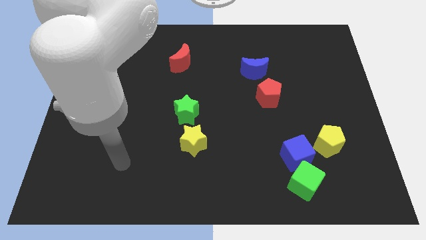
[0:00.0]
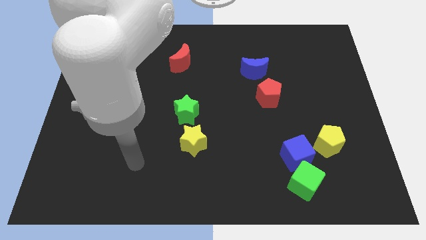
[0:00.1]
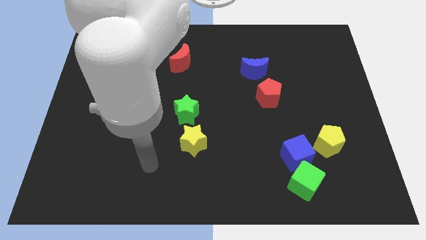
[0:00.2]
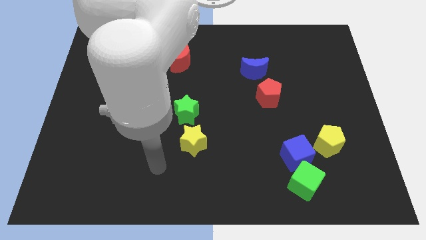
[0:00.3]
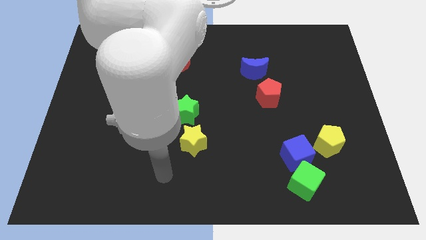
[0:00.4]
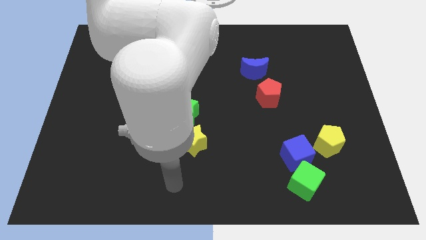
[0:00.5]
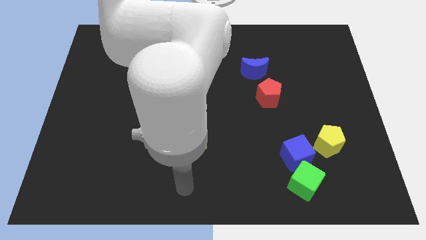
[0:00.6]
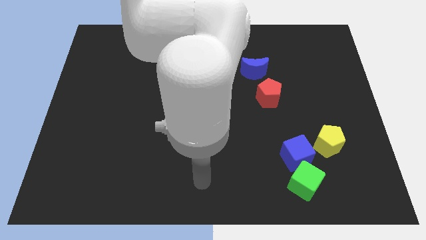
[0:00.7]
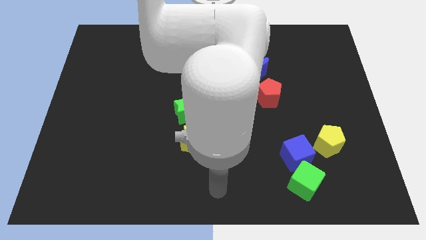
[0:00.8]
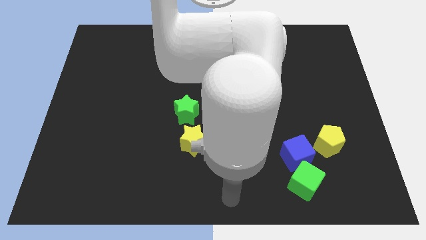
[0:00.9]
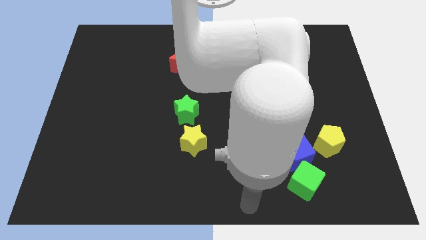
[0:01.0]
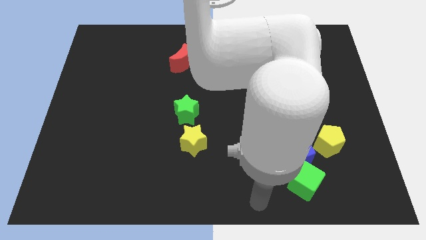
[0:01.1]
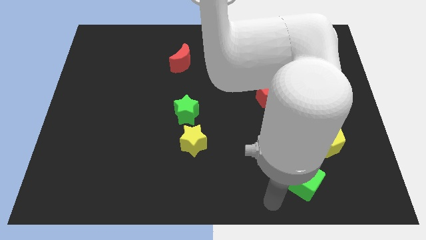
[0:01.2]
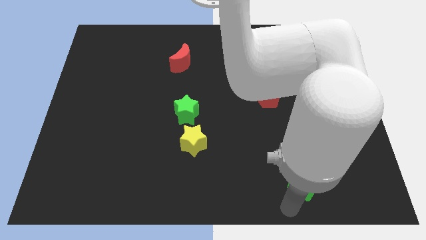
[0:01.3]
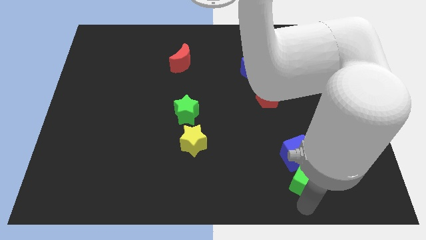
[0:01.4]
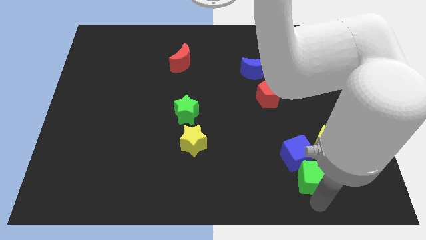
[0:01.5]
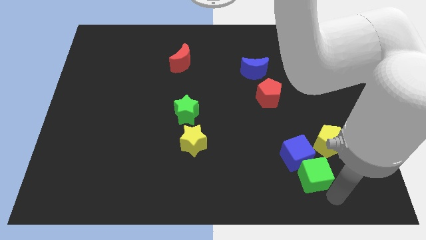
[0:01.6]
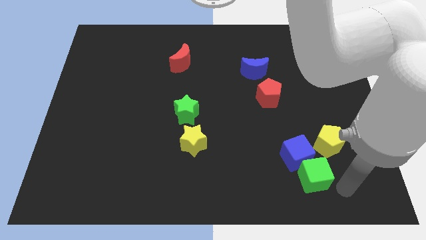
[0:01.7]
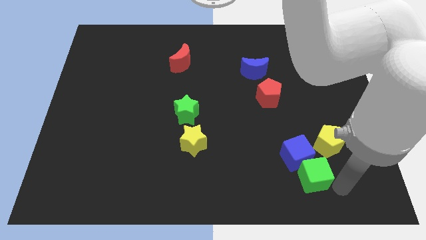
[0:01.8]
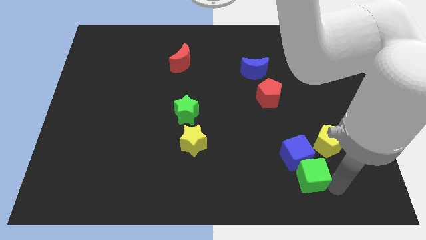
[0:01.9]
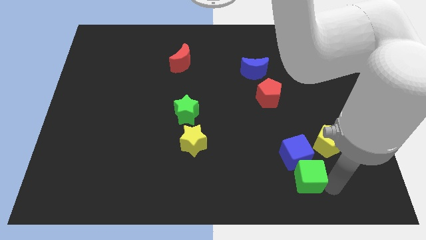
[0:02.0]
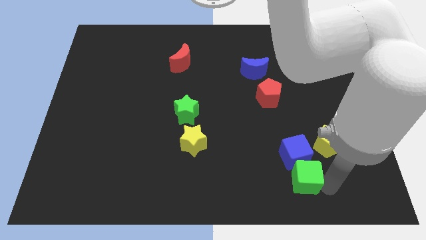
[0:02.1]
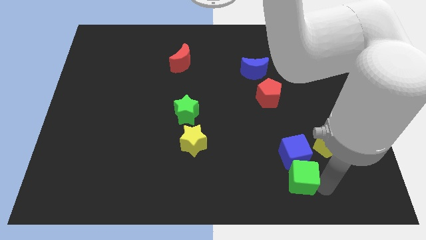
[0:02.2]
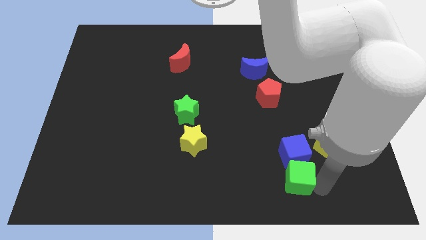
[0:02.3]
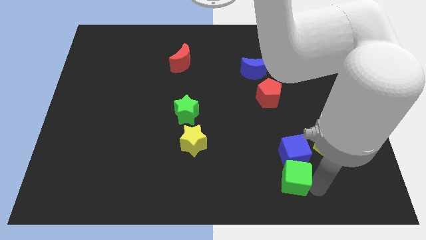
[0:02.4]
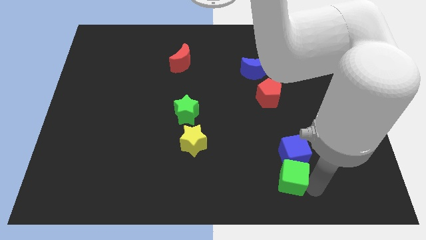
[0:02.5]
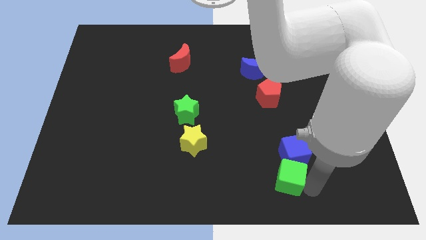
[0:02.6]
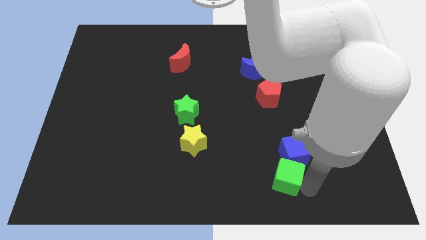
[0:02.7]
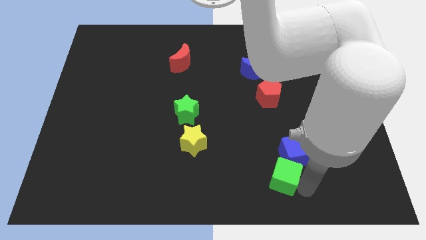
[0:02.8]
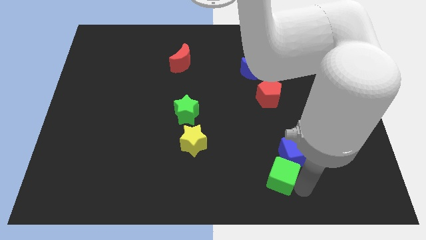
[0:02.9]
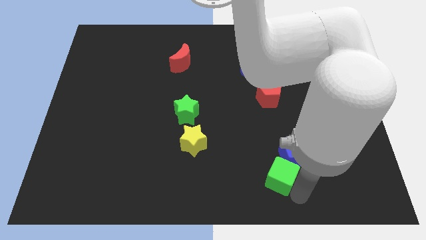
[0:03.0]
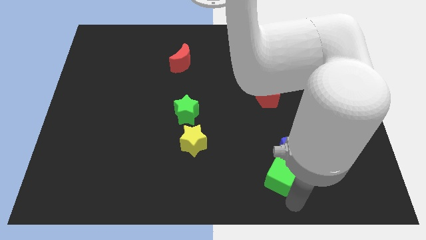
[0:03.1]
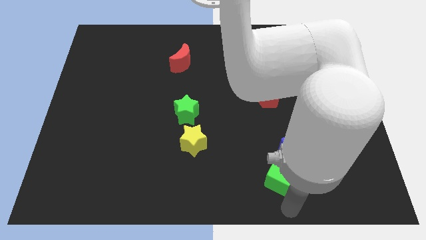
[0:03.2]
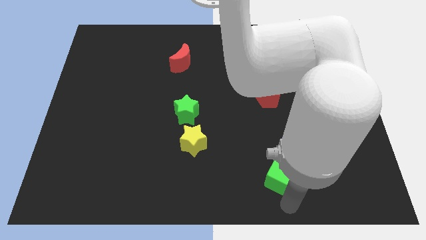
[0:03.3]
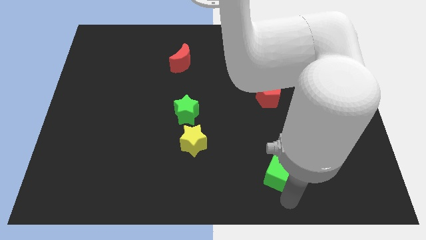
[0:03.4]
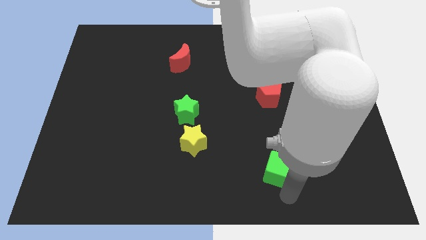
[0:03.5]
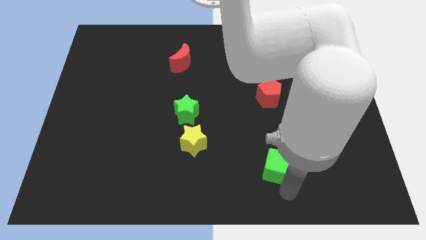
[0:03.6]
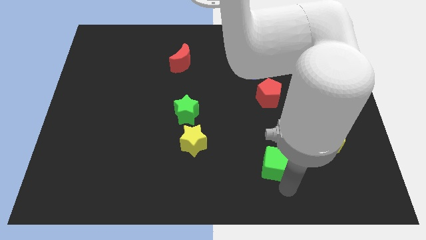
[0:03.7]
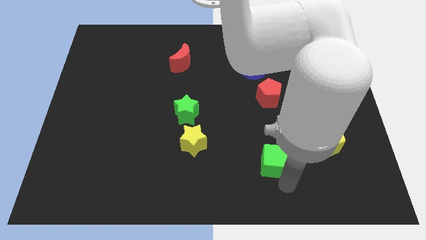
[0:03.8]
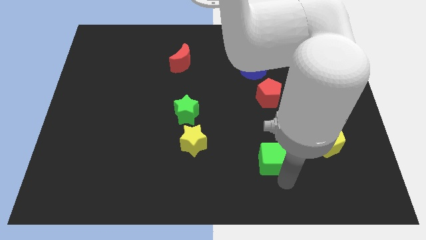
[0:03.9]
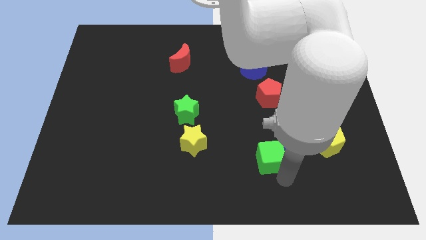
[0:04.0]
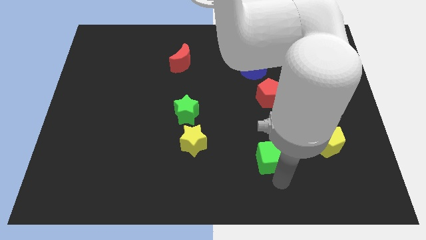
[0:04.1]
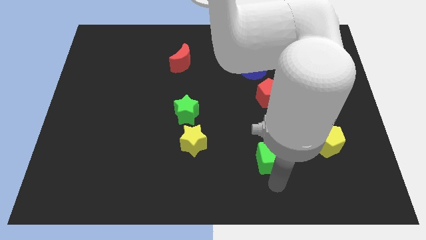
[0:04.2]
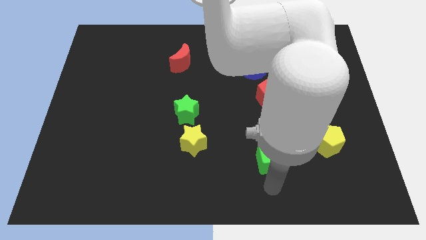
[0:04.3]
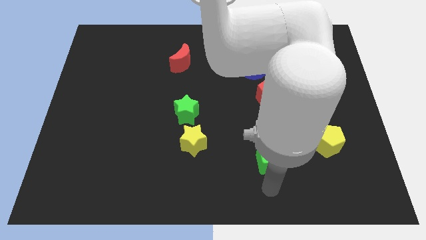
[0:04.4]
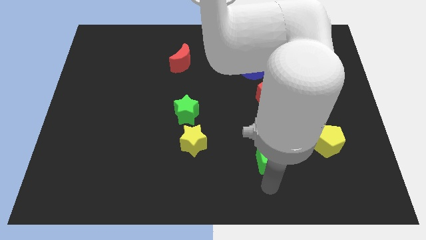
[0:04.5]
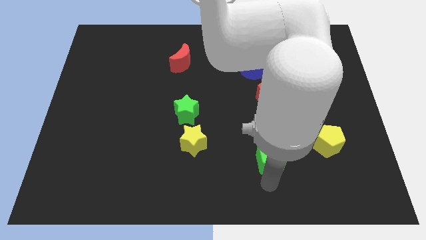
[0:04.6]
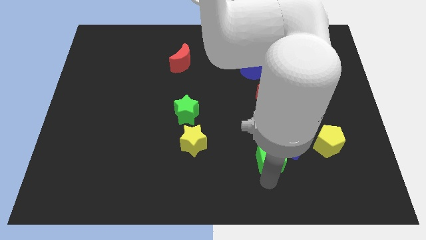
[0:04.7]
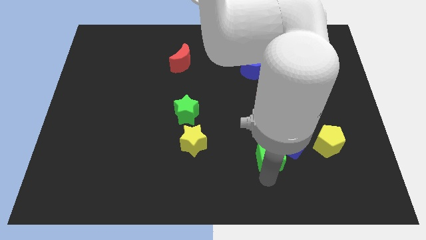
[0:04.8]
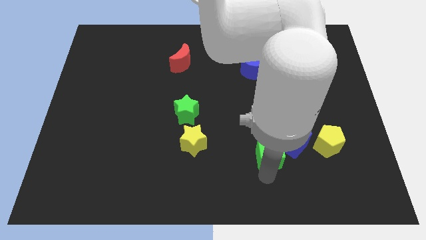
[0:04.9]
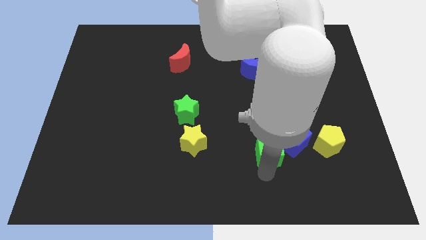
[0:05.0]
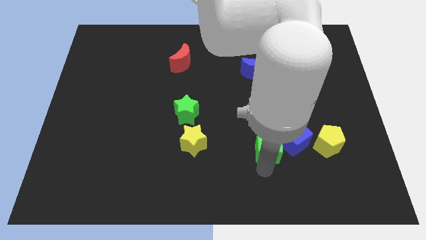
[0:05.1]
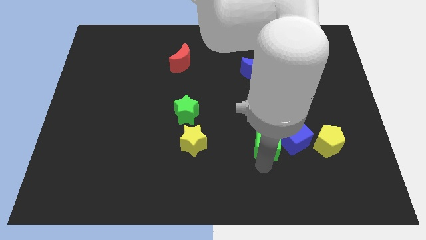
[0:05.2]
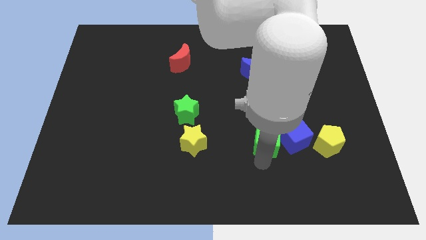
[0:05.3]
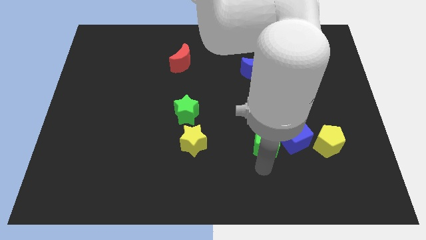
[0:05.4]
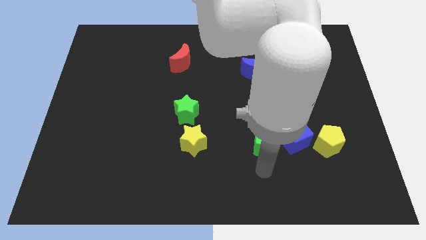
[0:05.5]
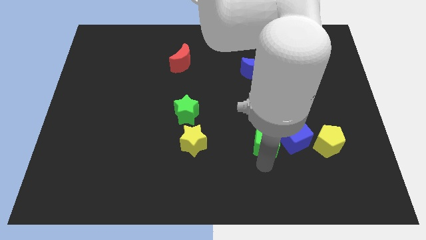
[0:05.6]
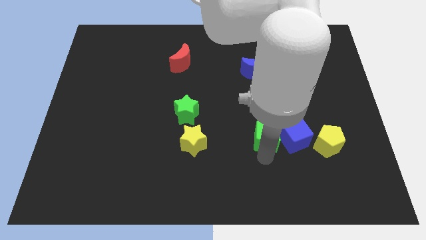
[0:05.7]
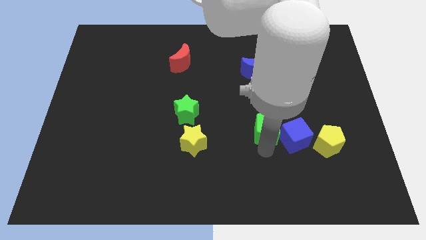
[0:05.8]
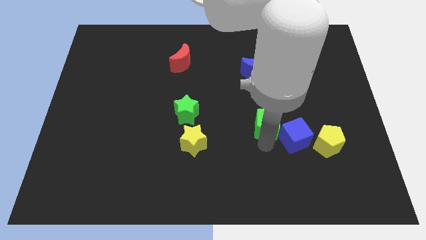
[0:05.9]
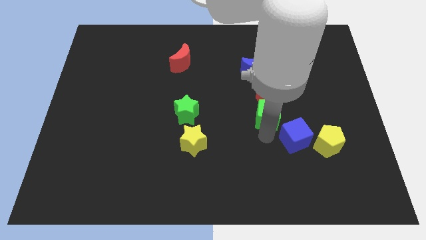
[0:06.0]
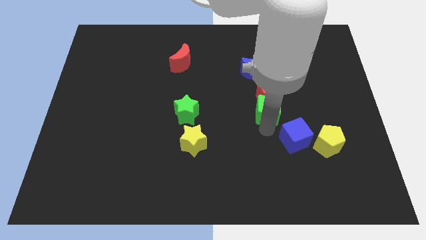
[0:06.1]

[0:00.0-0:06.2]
move the green cube towards the red pentagon

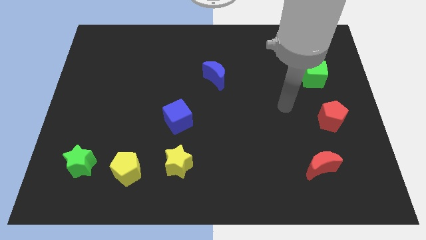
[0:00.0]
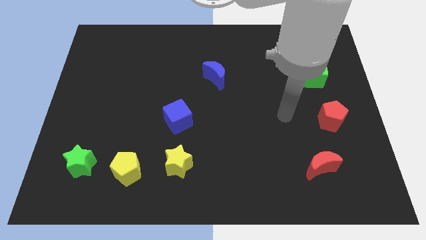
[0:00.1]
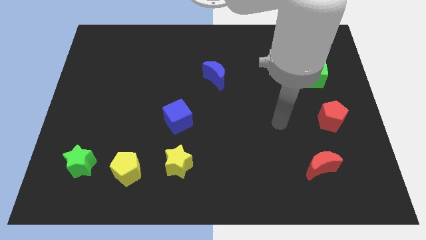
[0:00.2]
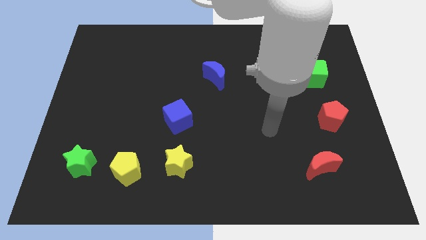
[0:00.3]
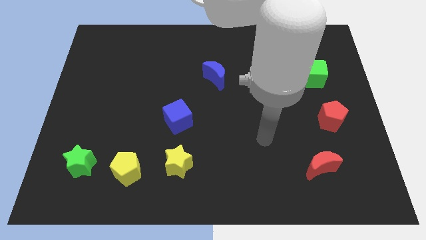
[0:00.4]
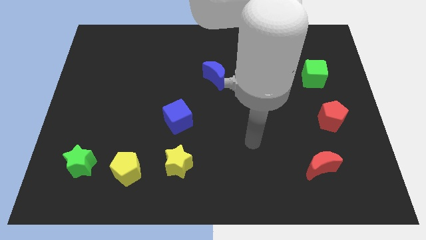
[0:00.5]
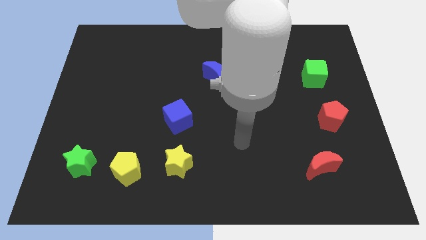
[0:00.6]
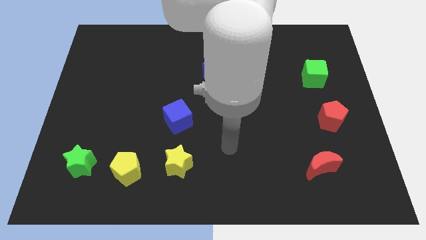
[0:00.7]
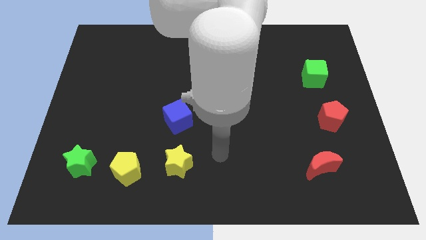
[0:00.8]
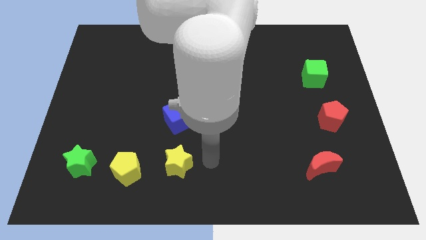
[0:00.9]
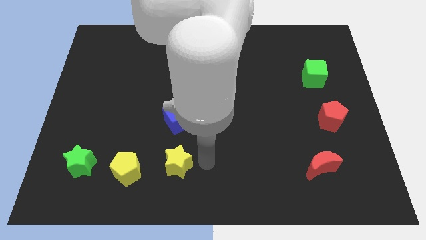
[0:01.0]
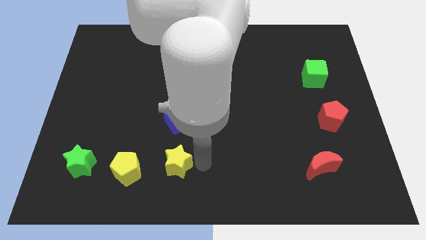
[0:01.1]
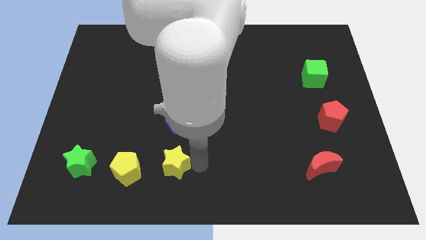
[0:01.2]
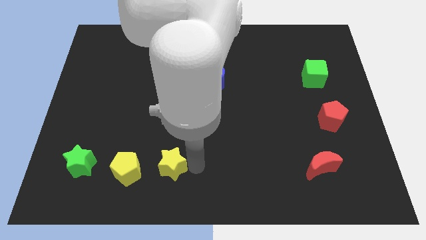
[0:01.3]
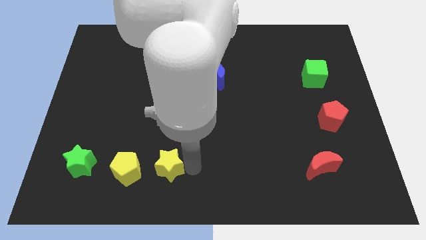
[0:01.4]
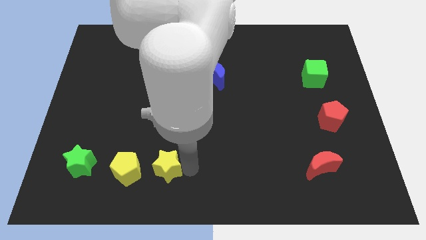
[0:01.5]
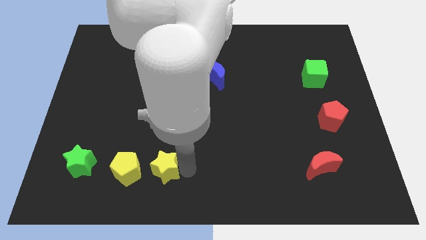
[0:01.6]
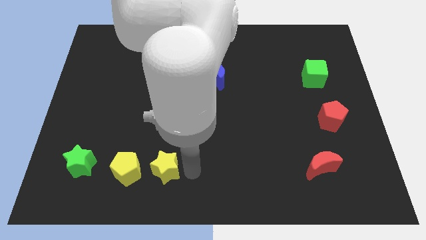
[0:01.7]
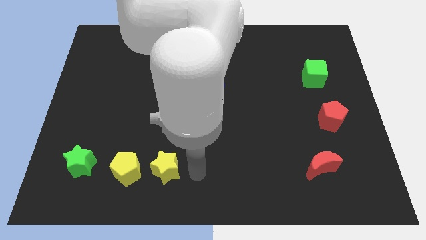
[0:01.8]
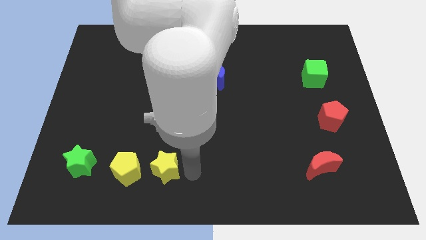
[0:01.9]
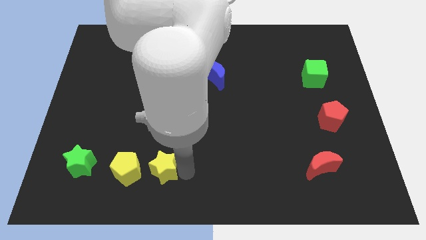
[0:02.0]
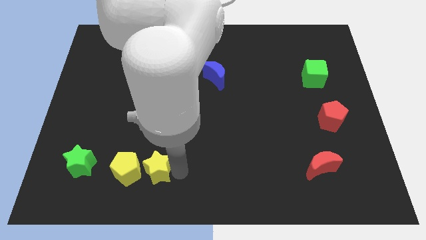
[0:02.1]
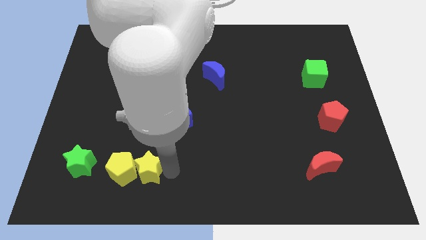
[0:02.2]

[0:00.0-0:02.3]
put the yellow star towards the yellow pentagon
